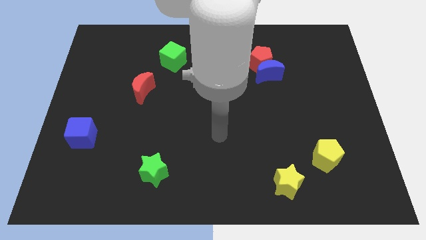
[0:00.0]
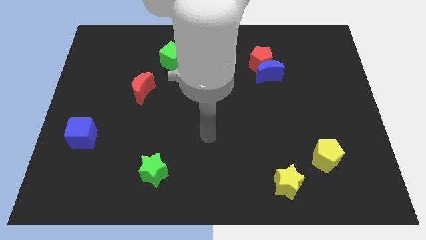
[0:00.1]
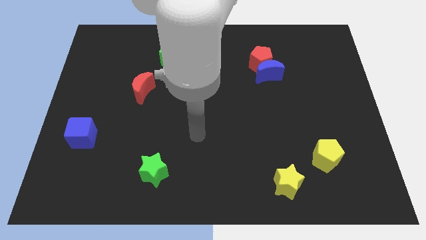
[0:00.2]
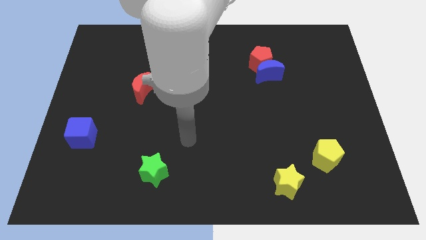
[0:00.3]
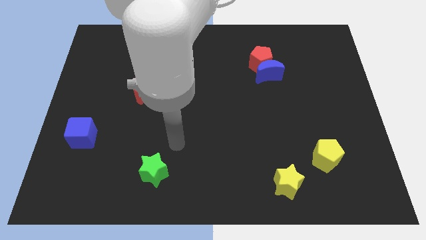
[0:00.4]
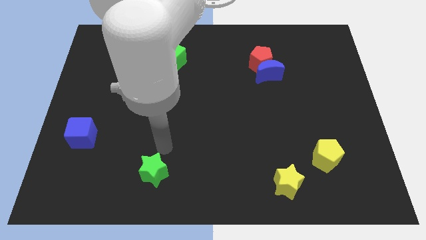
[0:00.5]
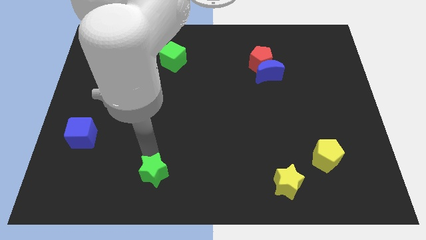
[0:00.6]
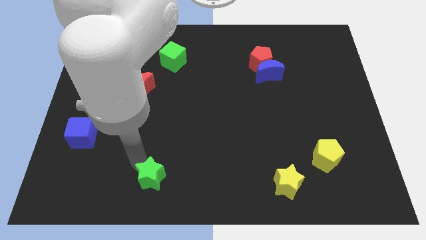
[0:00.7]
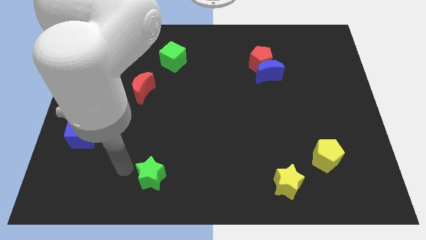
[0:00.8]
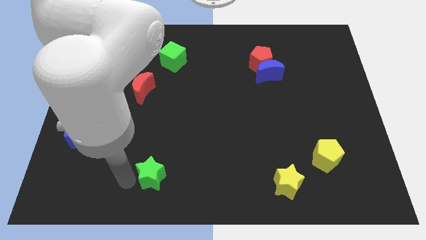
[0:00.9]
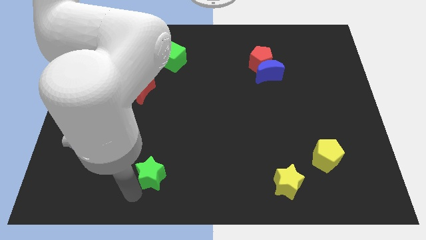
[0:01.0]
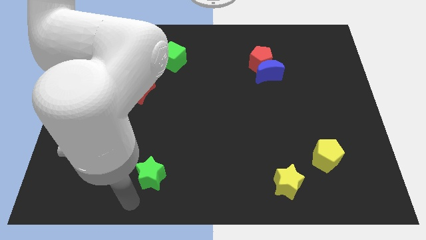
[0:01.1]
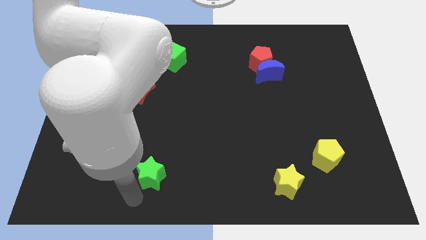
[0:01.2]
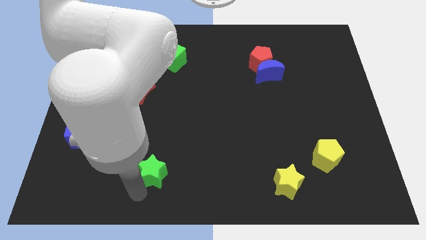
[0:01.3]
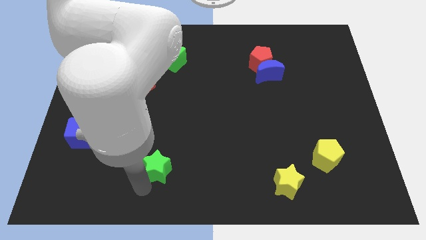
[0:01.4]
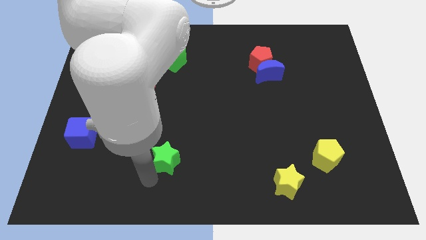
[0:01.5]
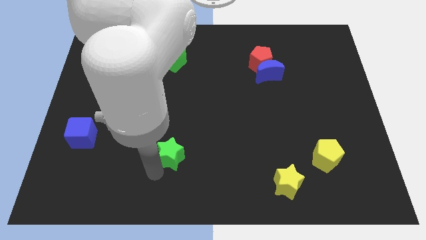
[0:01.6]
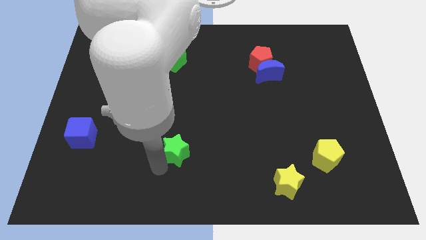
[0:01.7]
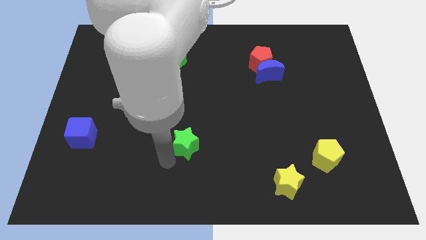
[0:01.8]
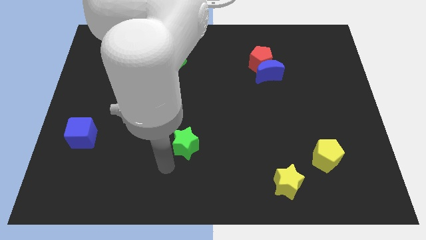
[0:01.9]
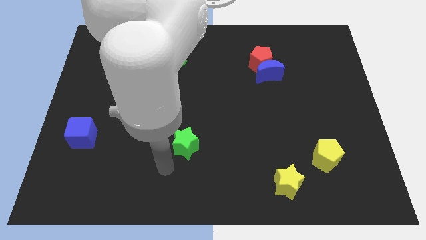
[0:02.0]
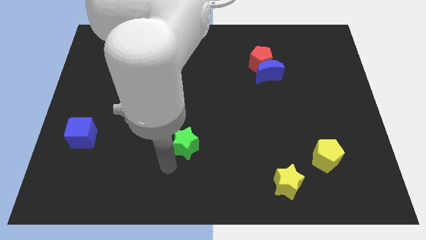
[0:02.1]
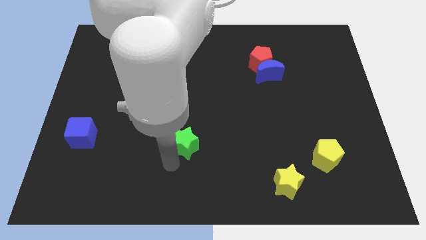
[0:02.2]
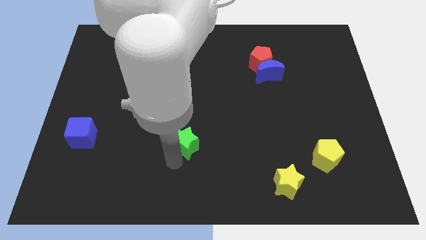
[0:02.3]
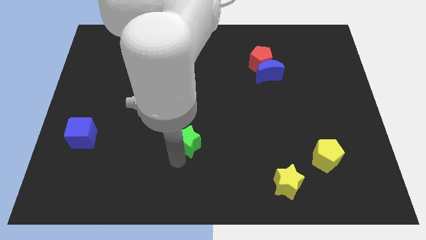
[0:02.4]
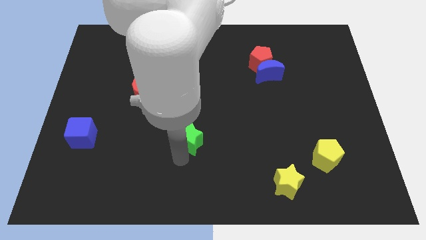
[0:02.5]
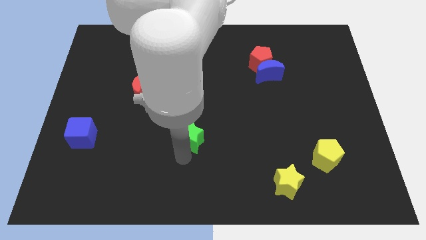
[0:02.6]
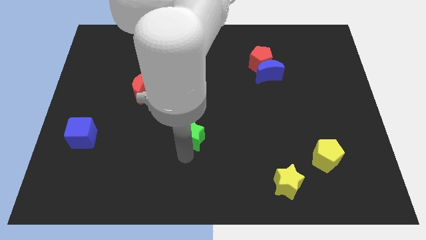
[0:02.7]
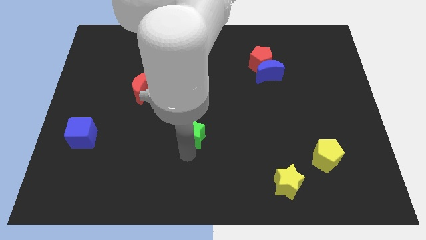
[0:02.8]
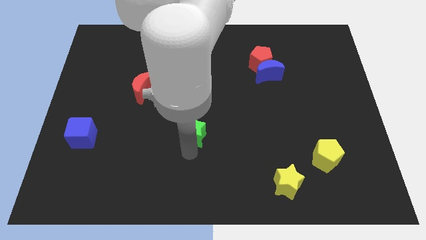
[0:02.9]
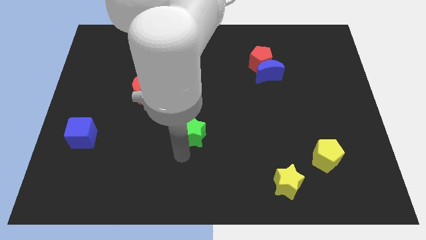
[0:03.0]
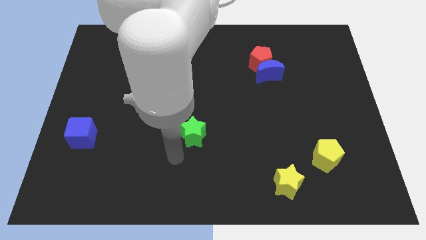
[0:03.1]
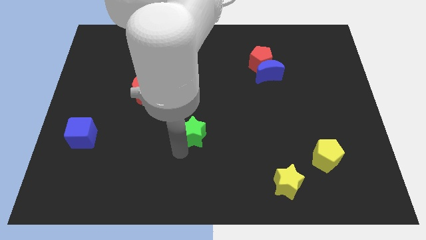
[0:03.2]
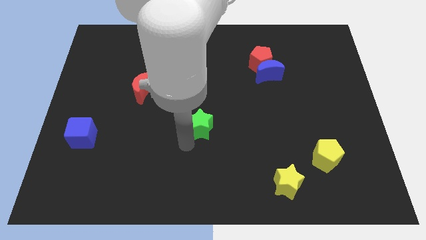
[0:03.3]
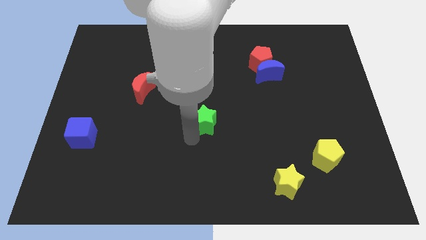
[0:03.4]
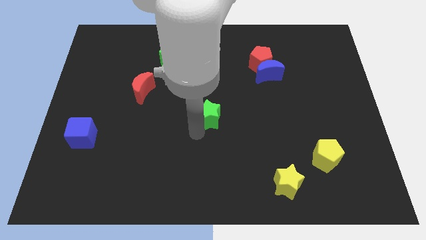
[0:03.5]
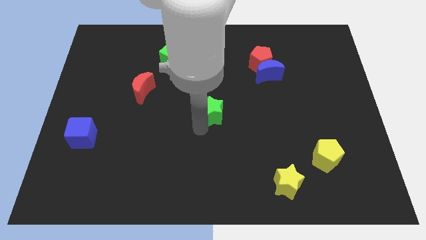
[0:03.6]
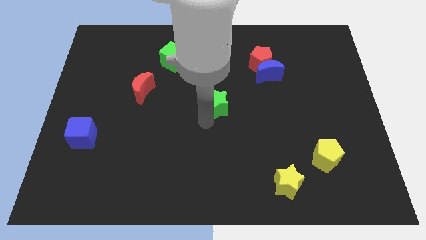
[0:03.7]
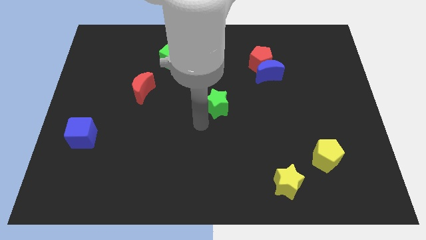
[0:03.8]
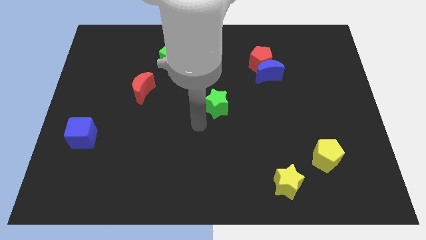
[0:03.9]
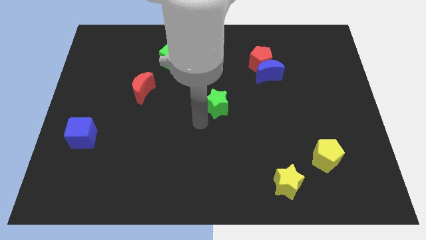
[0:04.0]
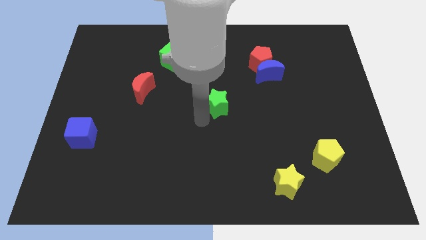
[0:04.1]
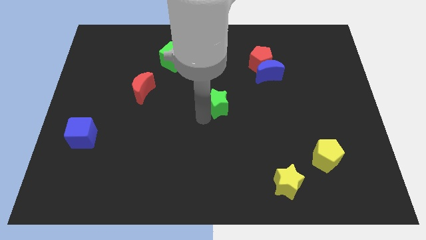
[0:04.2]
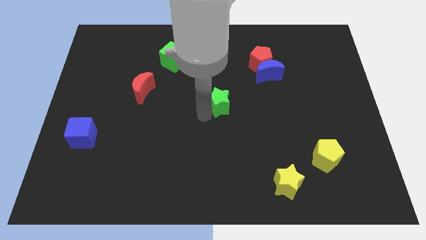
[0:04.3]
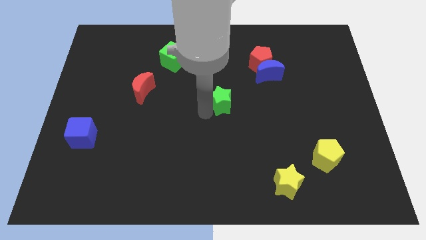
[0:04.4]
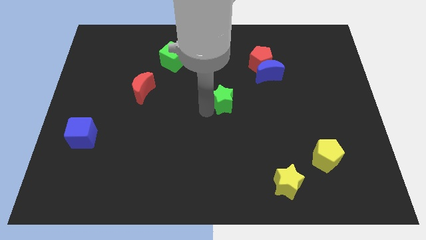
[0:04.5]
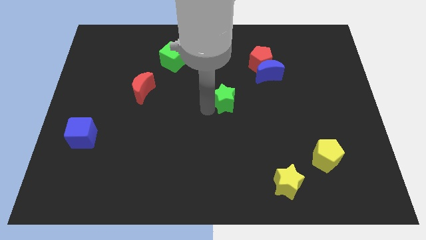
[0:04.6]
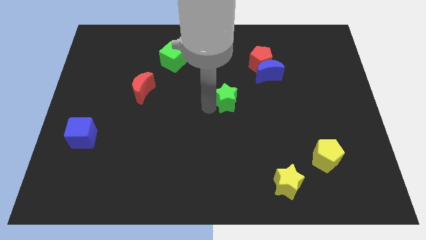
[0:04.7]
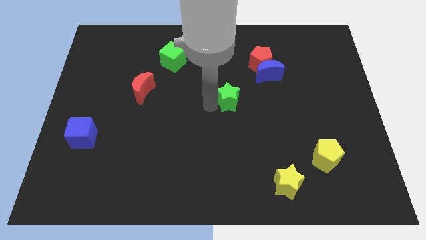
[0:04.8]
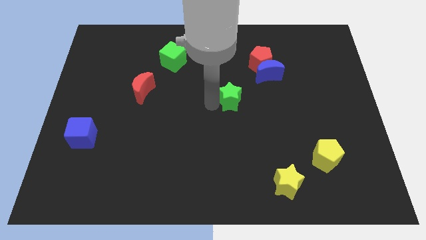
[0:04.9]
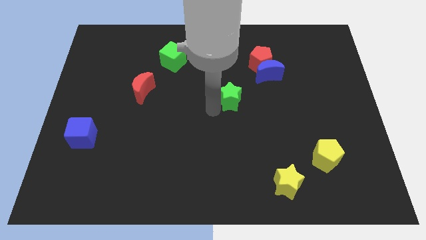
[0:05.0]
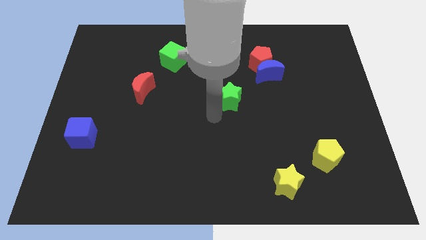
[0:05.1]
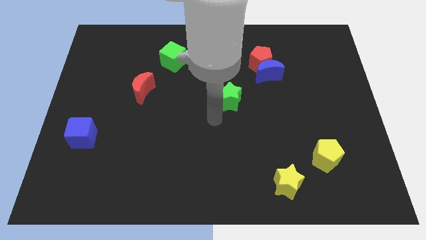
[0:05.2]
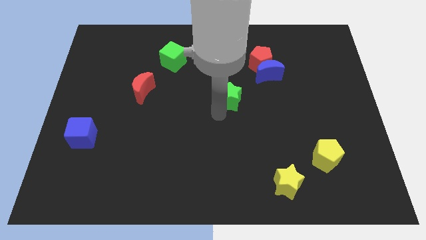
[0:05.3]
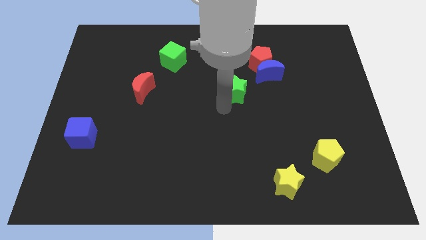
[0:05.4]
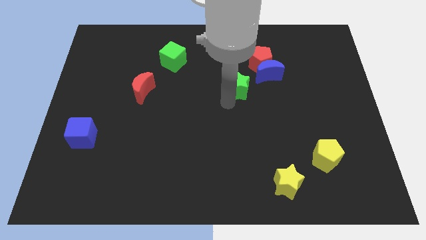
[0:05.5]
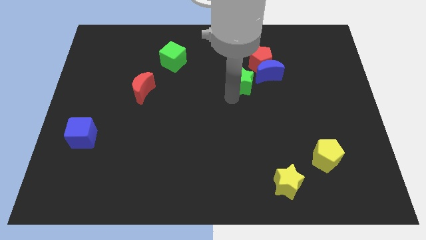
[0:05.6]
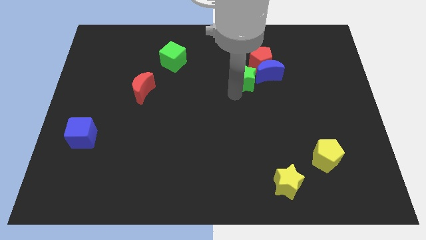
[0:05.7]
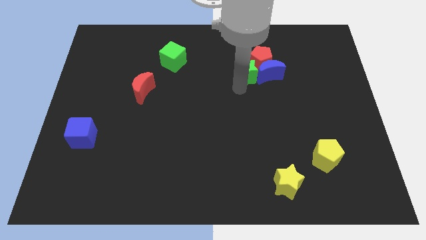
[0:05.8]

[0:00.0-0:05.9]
push the green star close to the red pentagon
